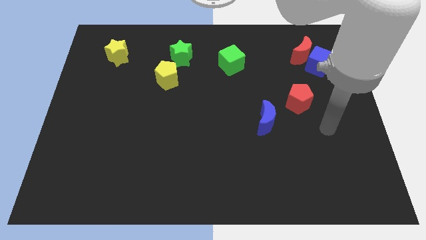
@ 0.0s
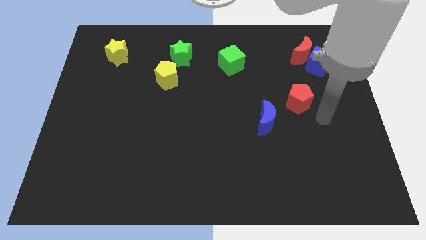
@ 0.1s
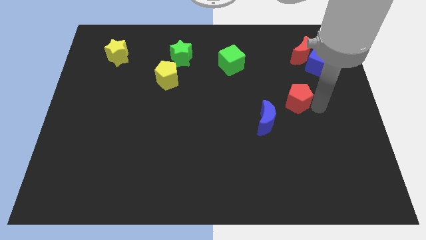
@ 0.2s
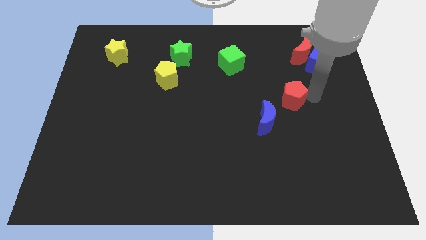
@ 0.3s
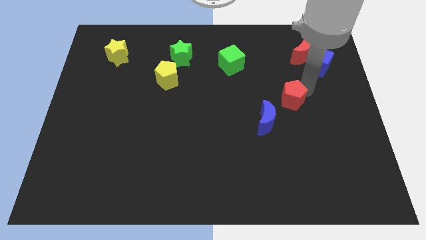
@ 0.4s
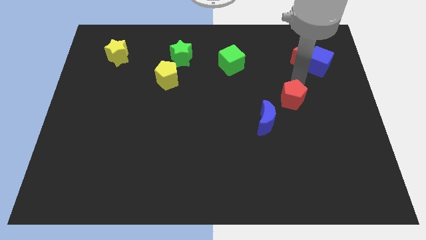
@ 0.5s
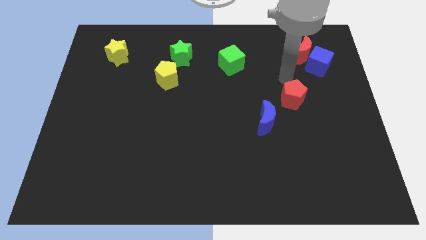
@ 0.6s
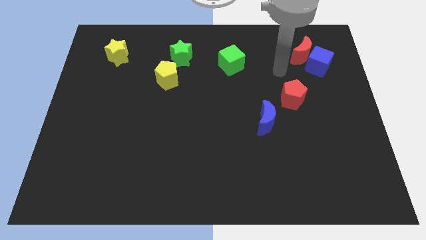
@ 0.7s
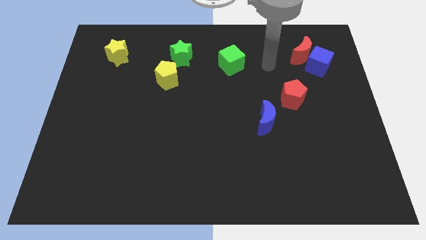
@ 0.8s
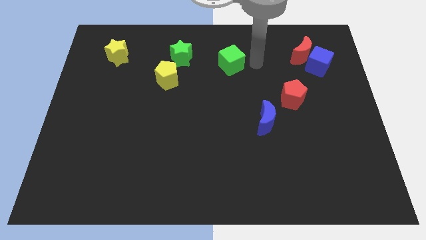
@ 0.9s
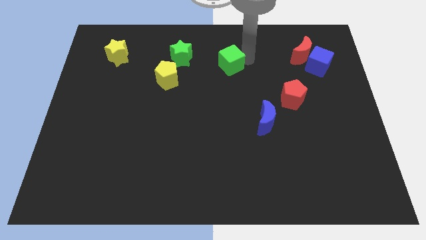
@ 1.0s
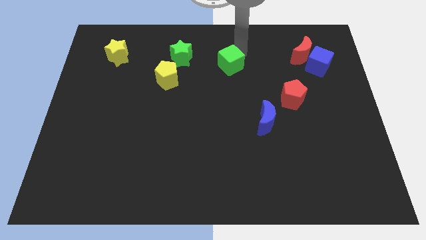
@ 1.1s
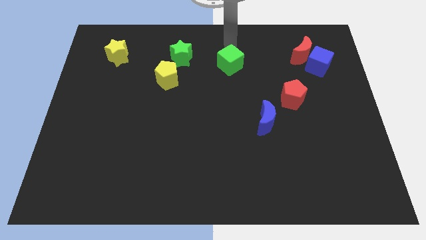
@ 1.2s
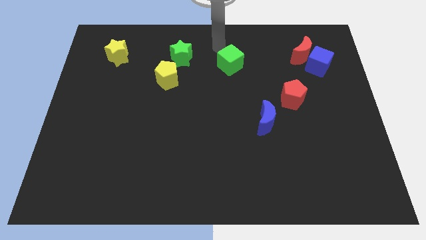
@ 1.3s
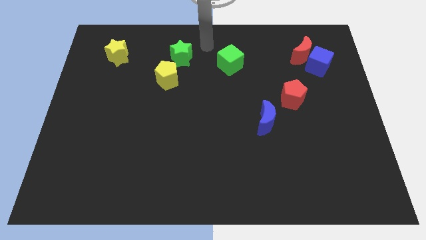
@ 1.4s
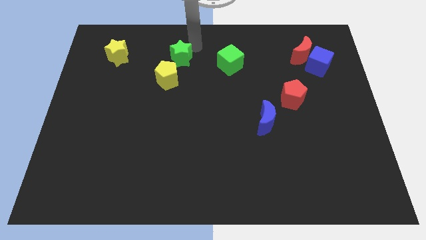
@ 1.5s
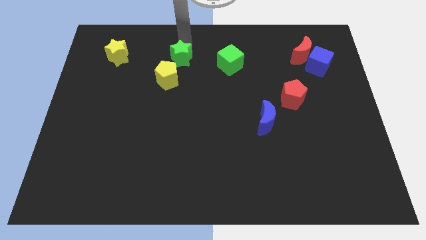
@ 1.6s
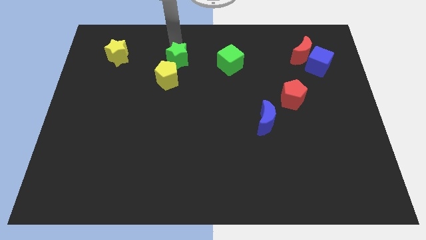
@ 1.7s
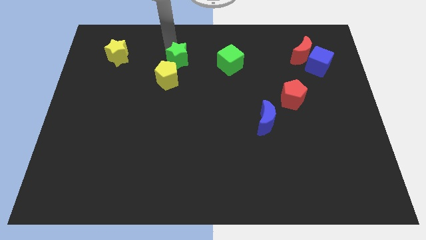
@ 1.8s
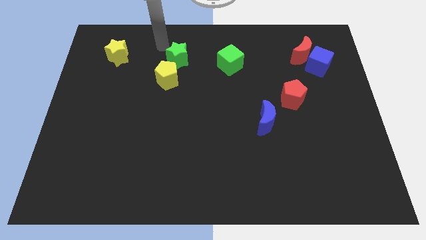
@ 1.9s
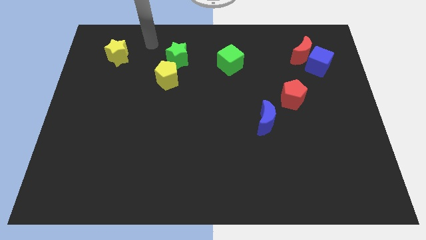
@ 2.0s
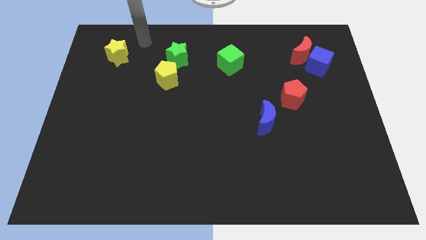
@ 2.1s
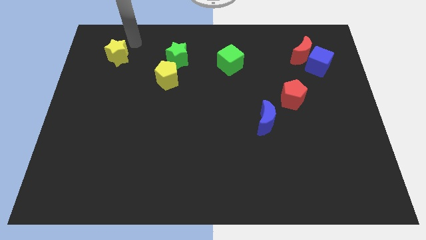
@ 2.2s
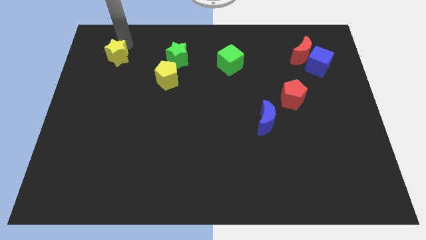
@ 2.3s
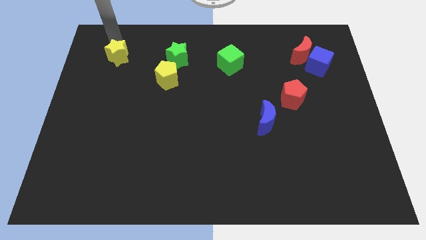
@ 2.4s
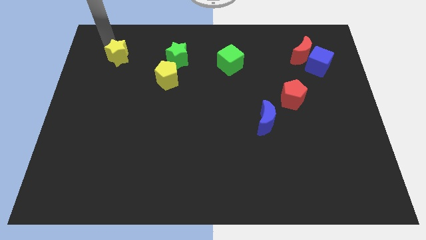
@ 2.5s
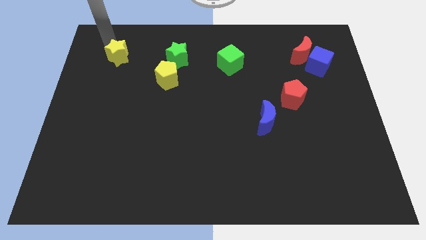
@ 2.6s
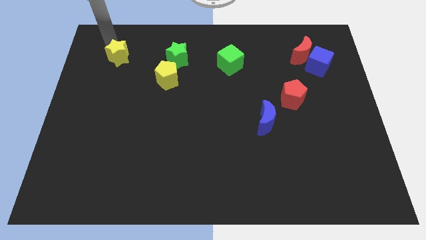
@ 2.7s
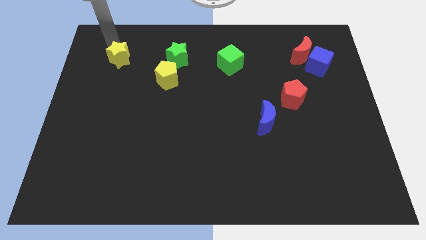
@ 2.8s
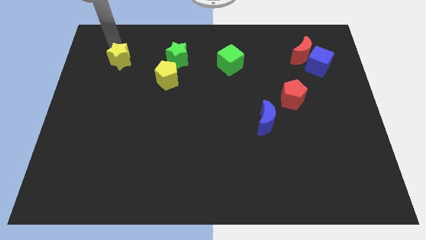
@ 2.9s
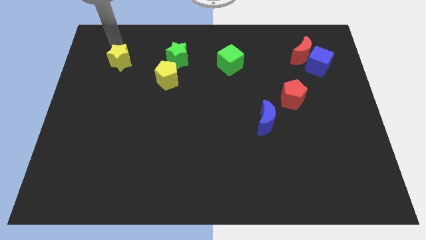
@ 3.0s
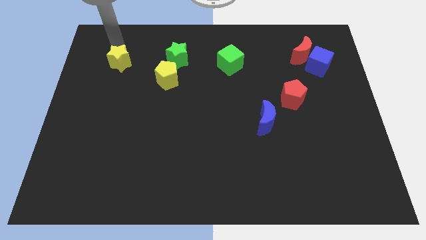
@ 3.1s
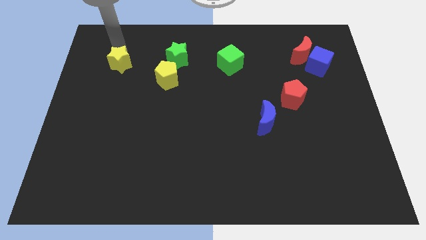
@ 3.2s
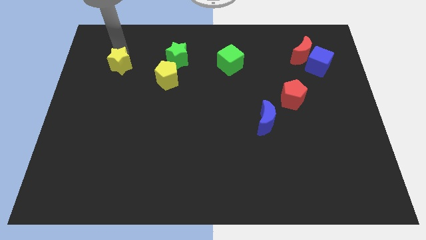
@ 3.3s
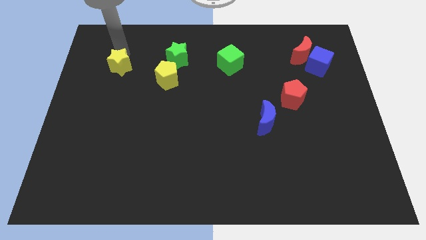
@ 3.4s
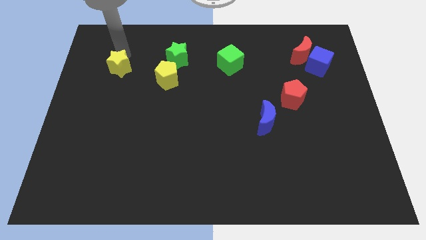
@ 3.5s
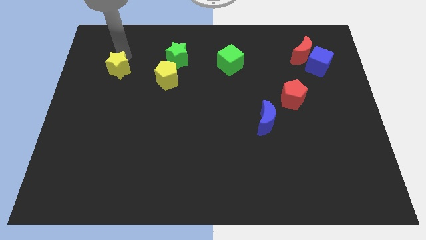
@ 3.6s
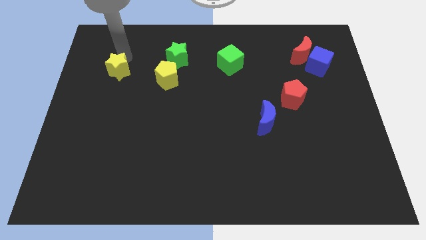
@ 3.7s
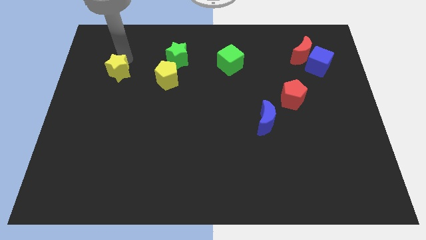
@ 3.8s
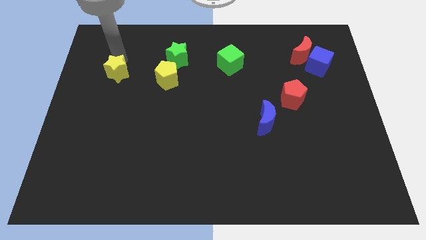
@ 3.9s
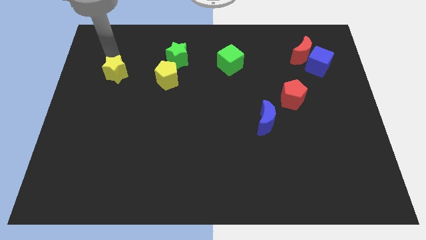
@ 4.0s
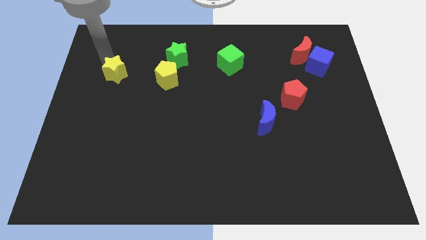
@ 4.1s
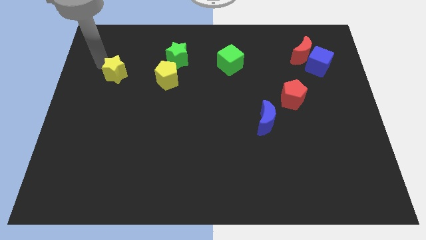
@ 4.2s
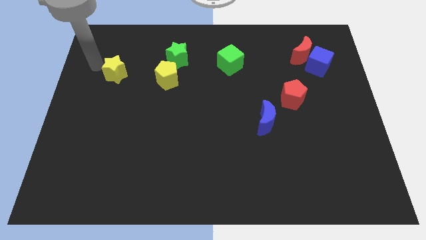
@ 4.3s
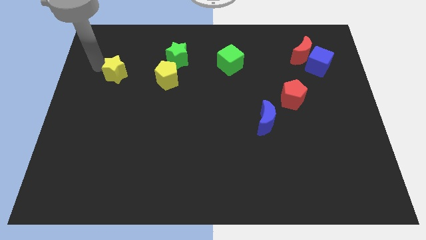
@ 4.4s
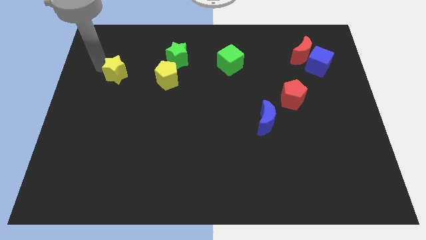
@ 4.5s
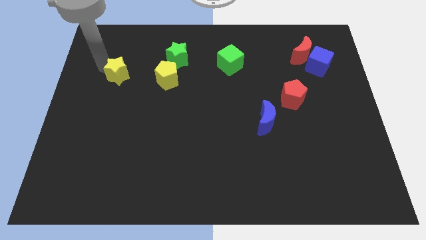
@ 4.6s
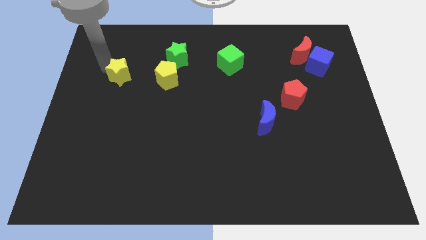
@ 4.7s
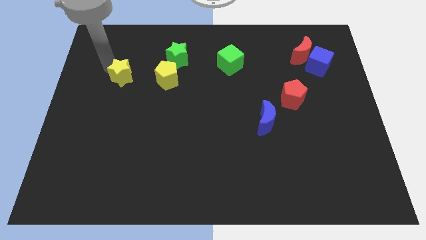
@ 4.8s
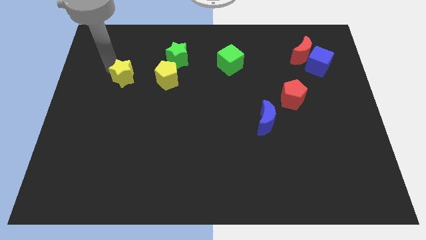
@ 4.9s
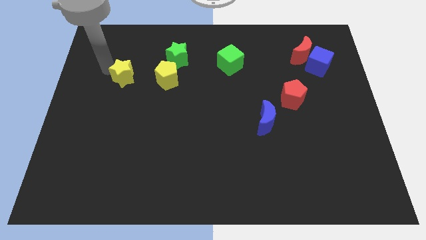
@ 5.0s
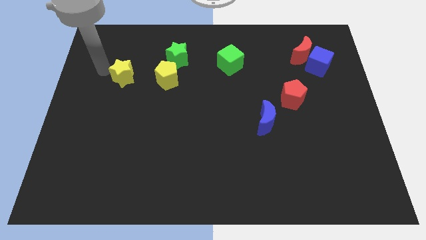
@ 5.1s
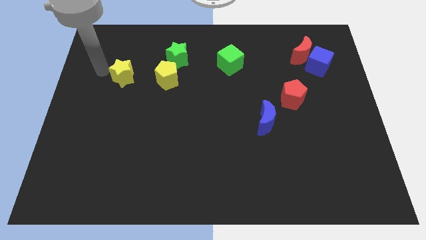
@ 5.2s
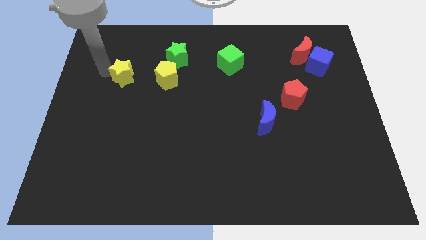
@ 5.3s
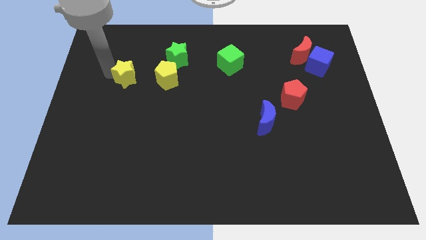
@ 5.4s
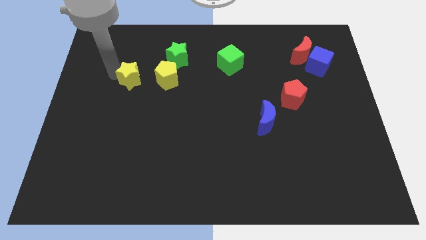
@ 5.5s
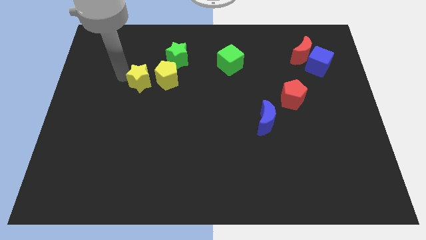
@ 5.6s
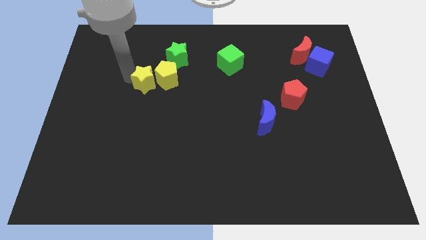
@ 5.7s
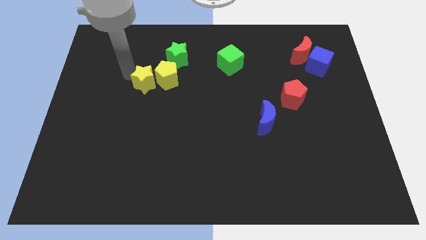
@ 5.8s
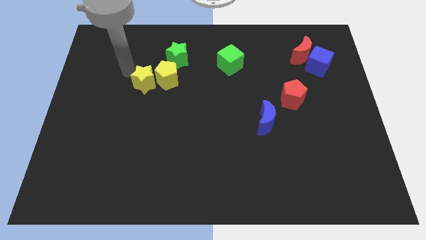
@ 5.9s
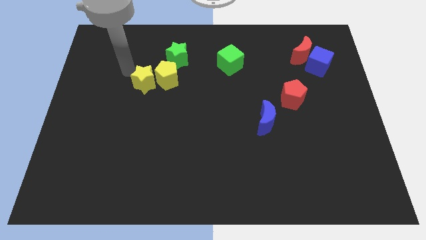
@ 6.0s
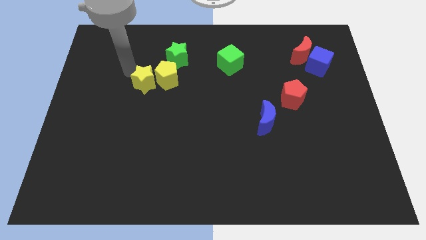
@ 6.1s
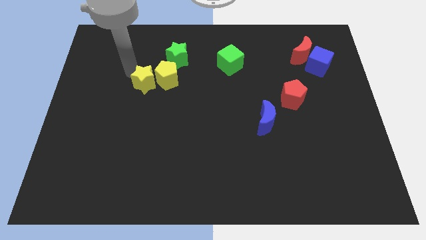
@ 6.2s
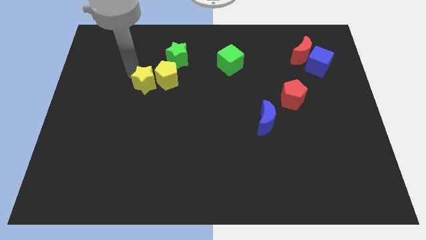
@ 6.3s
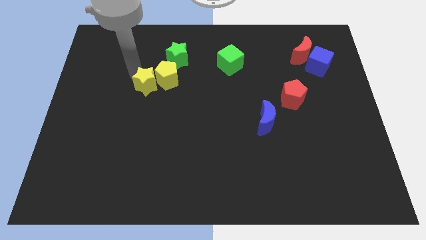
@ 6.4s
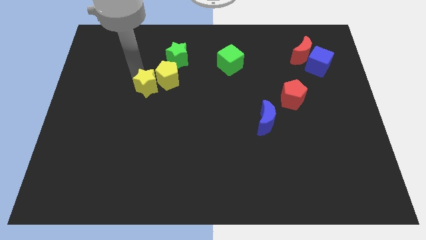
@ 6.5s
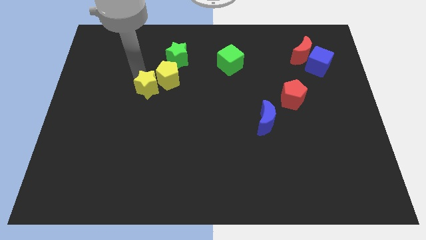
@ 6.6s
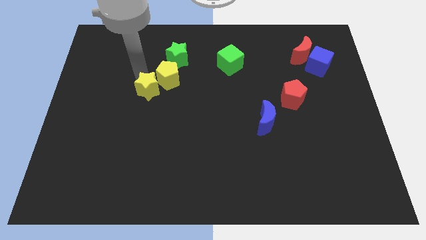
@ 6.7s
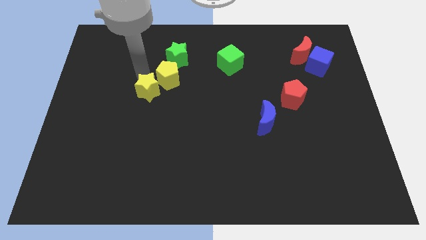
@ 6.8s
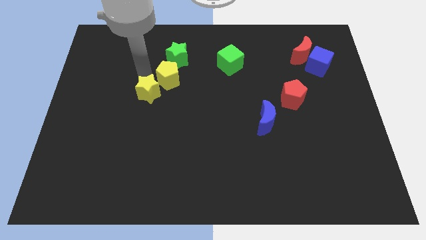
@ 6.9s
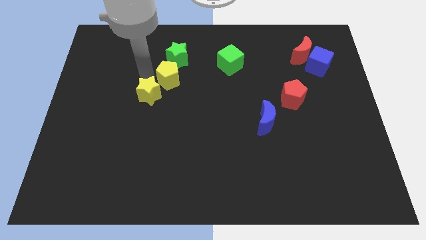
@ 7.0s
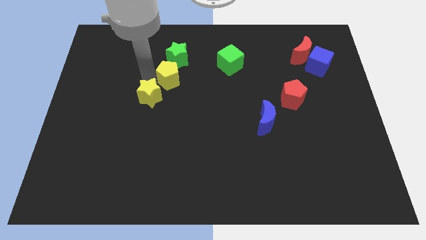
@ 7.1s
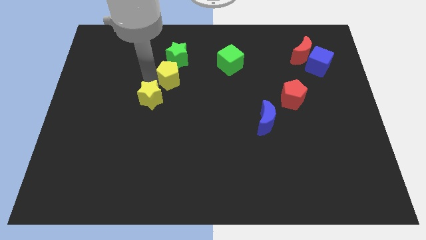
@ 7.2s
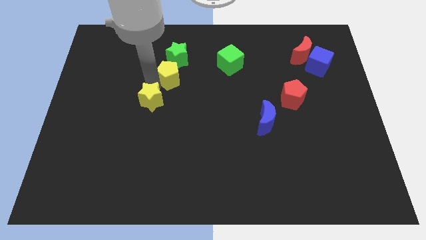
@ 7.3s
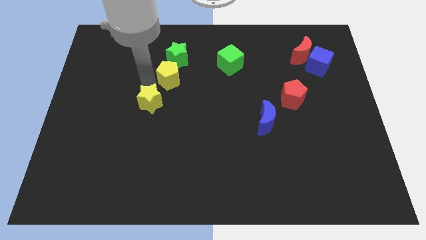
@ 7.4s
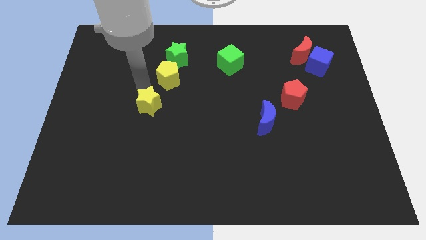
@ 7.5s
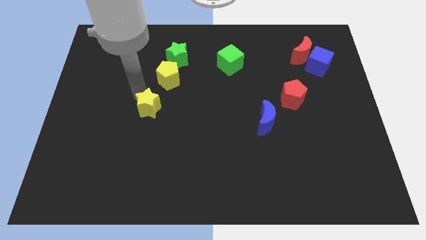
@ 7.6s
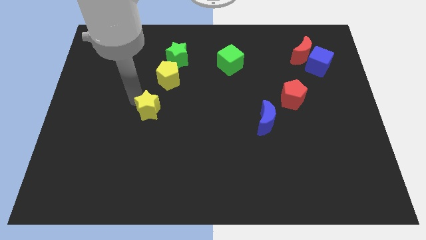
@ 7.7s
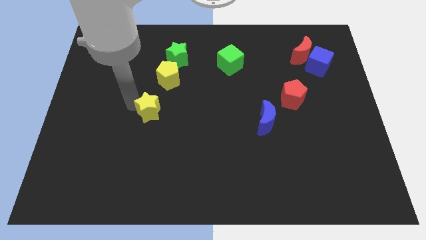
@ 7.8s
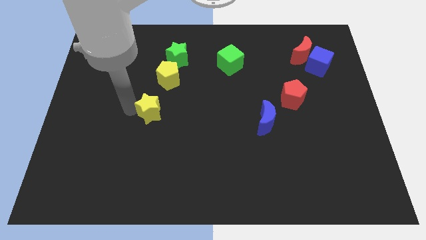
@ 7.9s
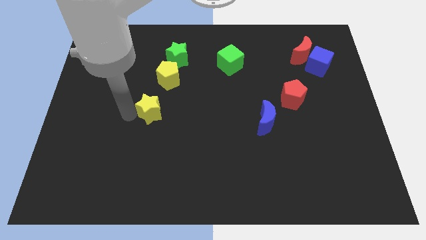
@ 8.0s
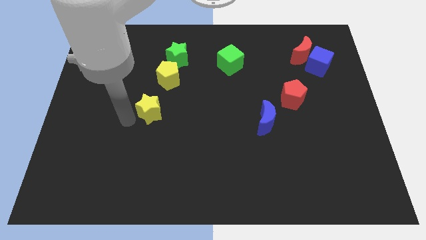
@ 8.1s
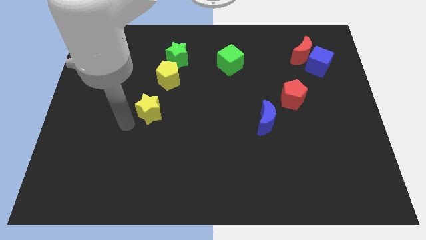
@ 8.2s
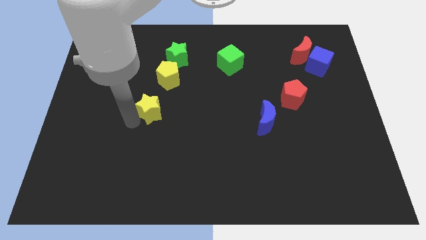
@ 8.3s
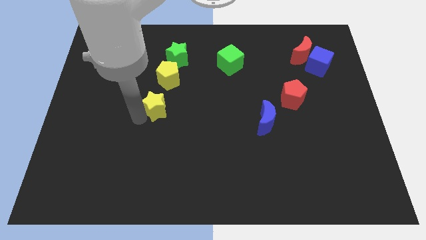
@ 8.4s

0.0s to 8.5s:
push the yellow star diagonally downwards and to the right
